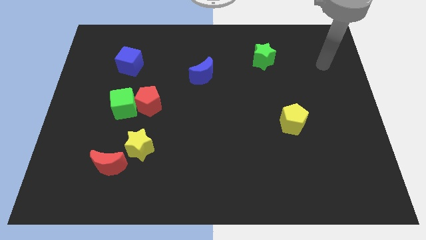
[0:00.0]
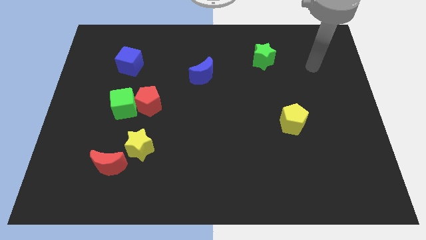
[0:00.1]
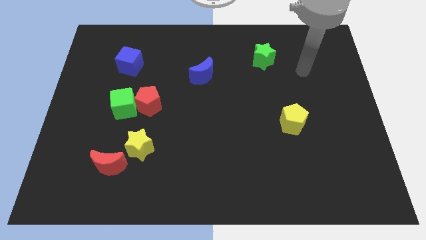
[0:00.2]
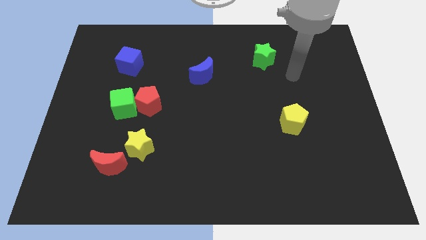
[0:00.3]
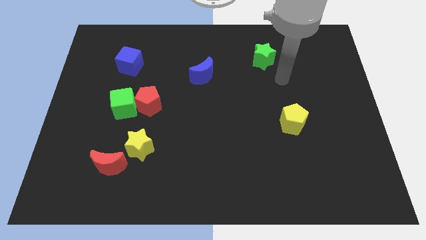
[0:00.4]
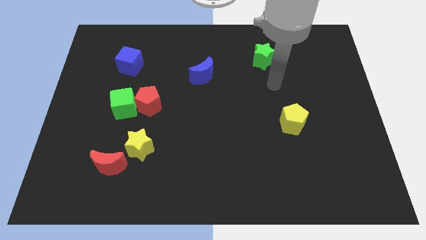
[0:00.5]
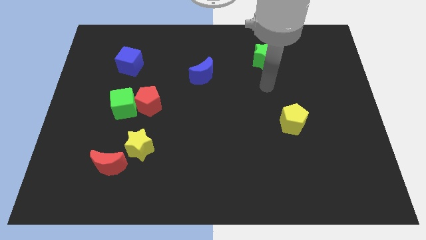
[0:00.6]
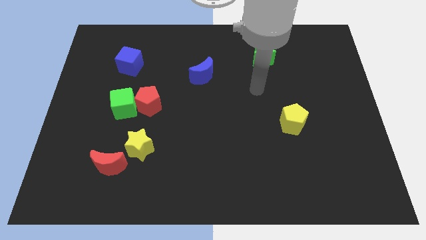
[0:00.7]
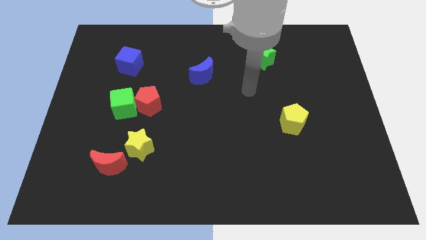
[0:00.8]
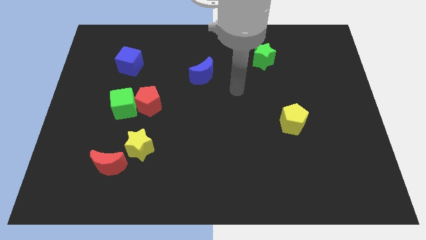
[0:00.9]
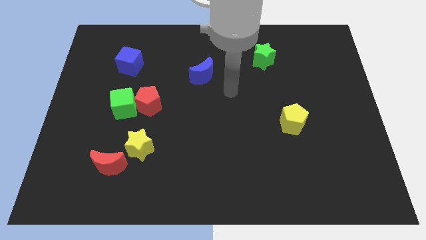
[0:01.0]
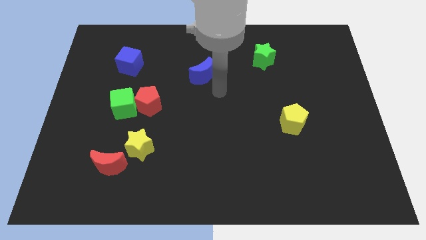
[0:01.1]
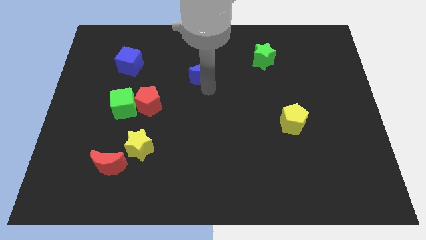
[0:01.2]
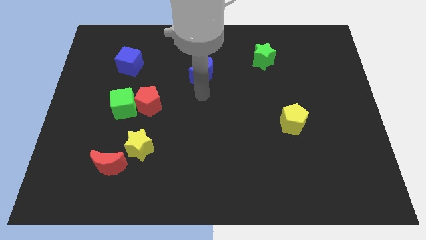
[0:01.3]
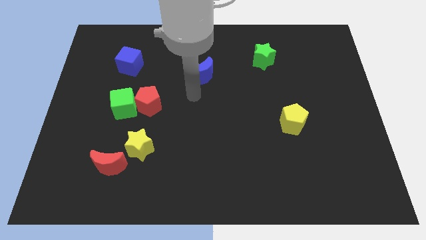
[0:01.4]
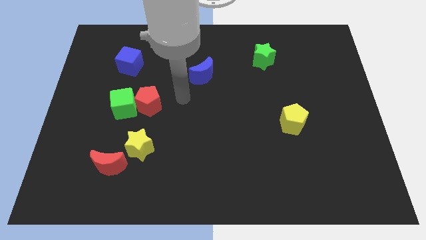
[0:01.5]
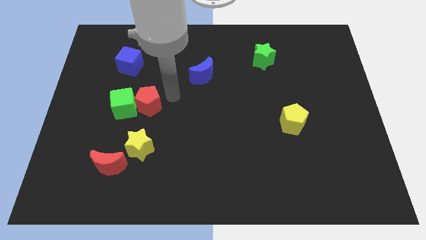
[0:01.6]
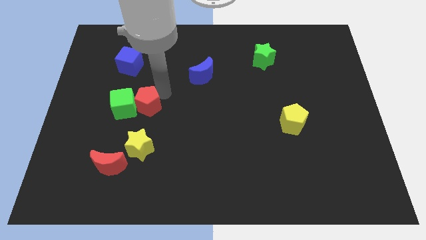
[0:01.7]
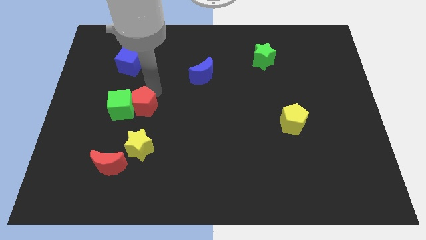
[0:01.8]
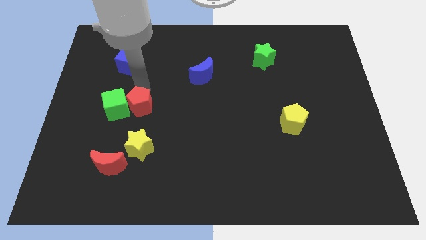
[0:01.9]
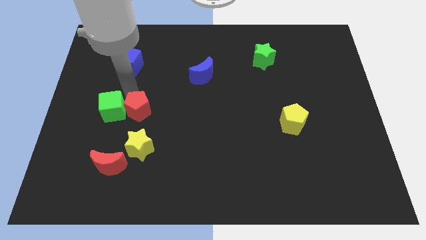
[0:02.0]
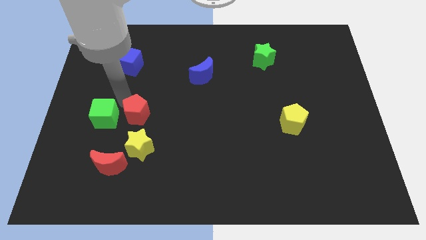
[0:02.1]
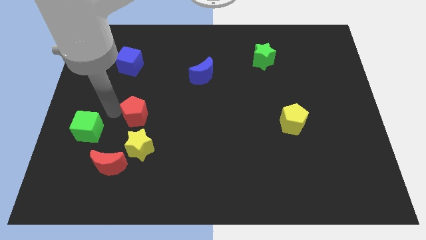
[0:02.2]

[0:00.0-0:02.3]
pull the red pentagon apart from the green cube

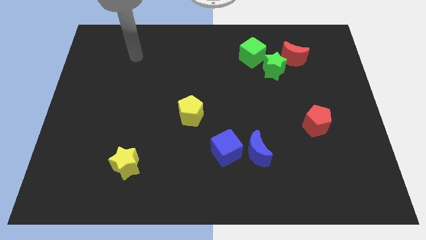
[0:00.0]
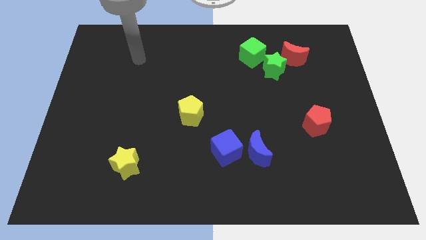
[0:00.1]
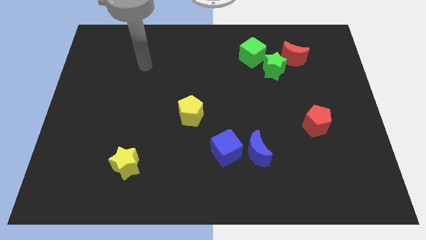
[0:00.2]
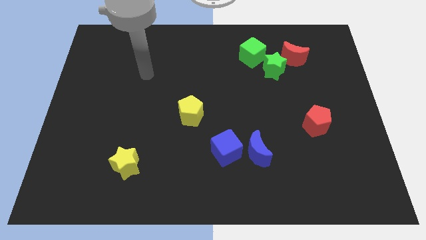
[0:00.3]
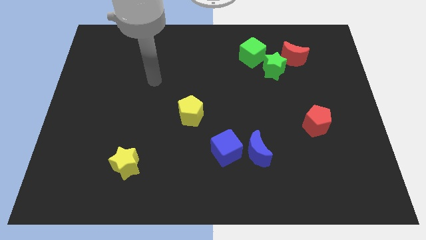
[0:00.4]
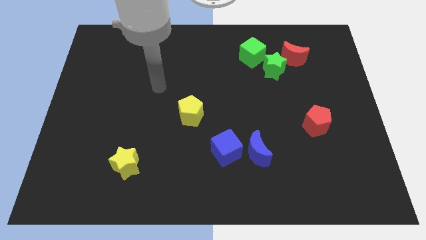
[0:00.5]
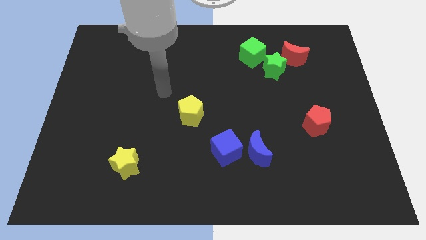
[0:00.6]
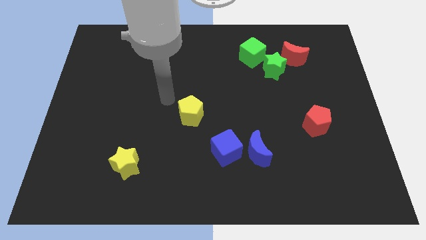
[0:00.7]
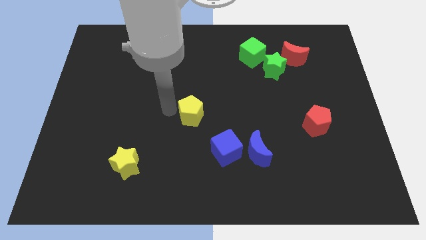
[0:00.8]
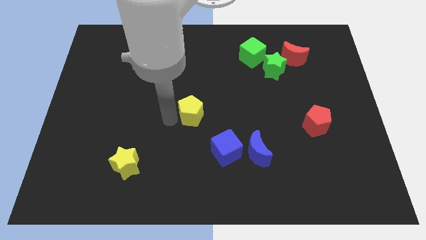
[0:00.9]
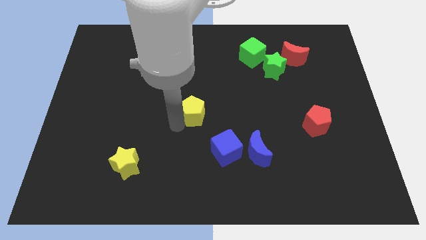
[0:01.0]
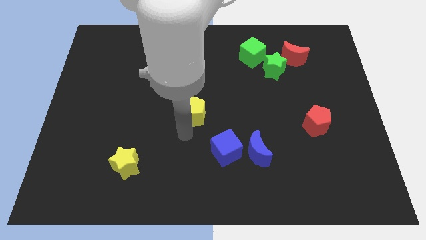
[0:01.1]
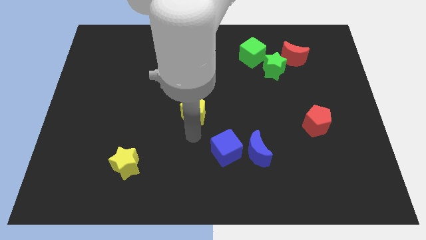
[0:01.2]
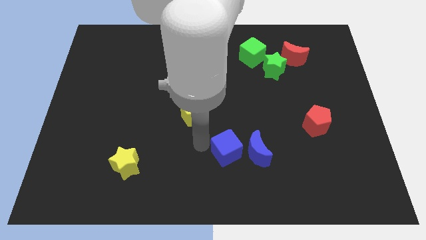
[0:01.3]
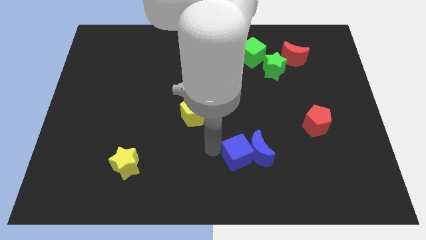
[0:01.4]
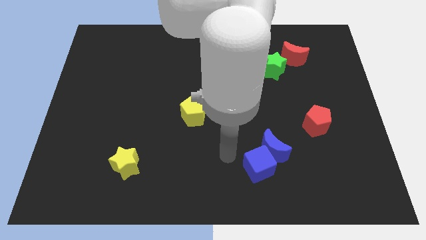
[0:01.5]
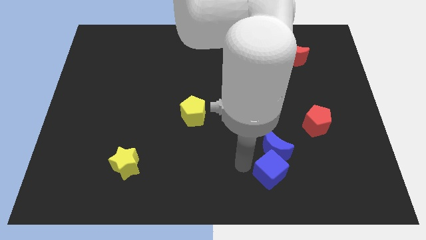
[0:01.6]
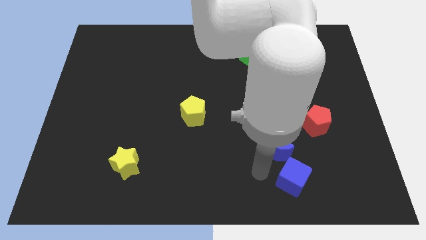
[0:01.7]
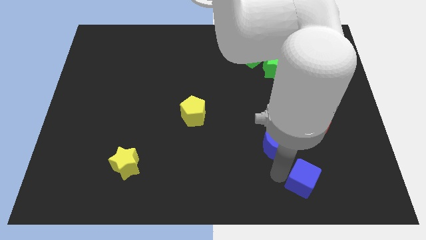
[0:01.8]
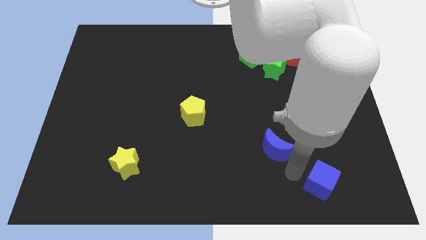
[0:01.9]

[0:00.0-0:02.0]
pull the blue moon apart from the blue cube

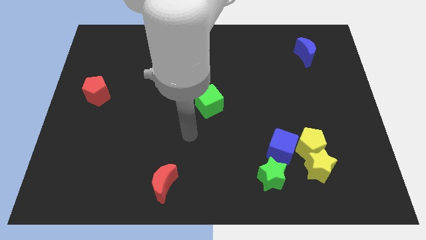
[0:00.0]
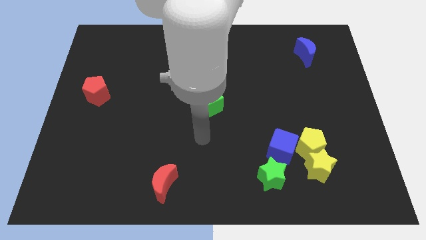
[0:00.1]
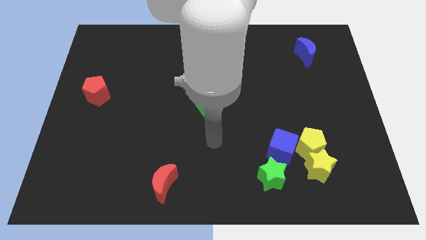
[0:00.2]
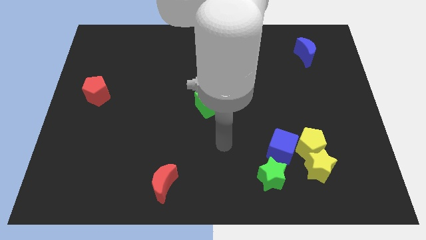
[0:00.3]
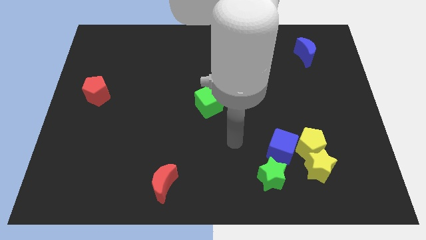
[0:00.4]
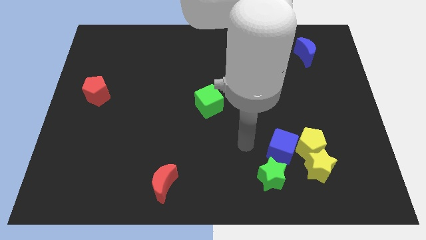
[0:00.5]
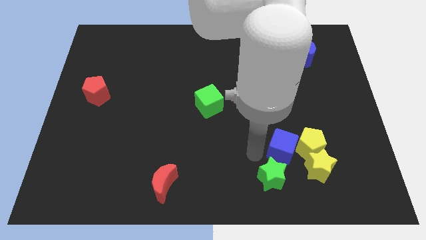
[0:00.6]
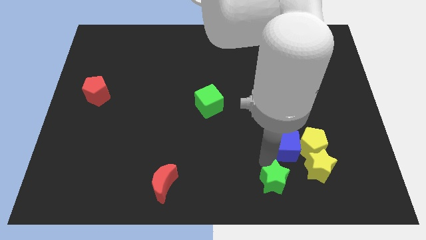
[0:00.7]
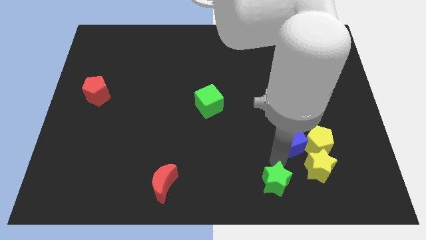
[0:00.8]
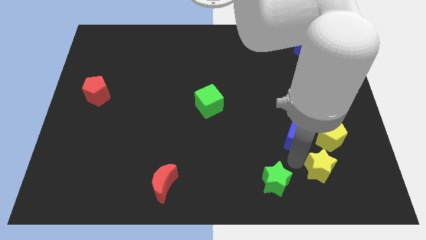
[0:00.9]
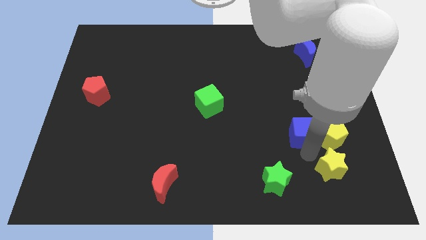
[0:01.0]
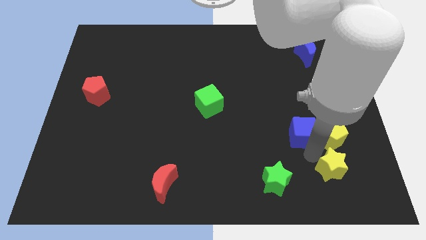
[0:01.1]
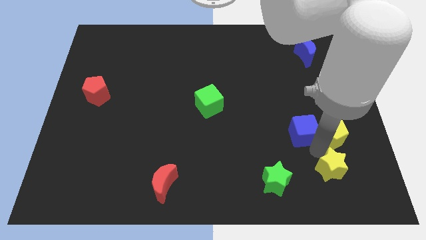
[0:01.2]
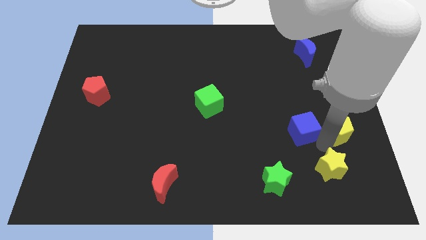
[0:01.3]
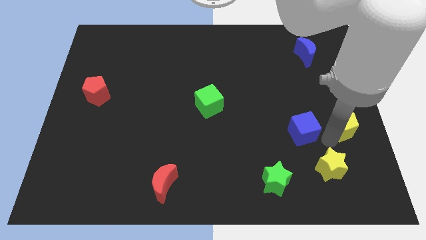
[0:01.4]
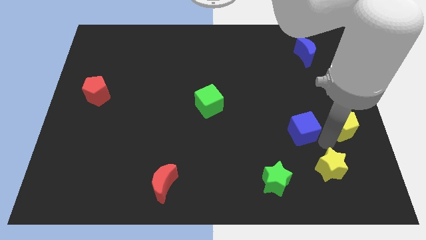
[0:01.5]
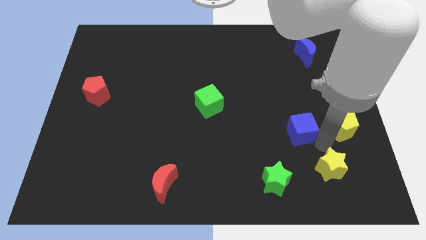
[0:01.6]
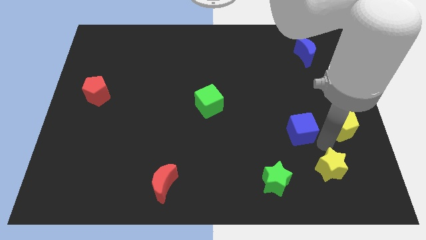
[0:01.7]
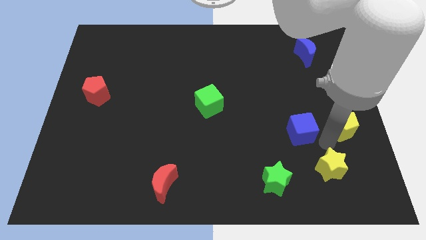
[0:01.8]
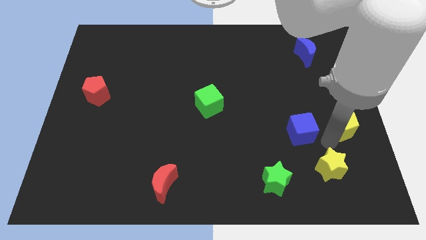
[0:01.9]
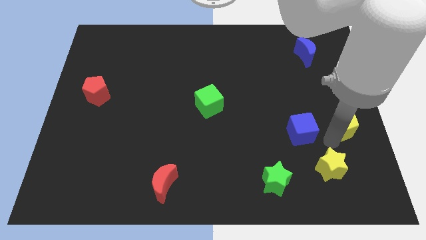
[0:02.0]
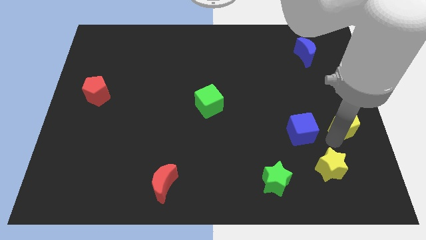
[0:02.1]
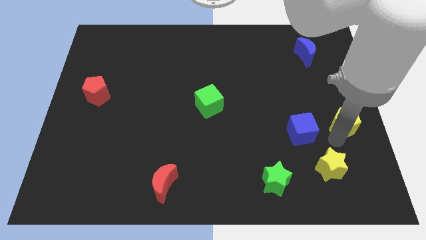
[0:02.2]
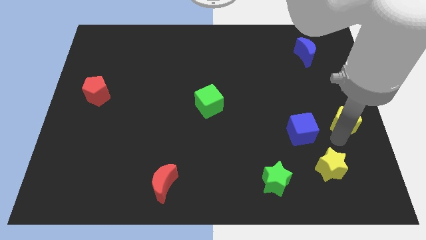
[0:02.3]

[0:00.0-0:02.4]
separate the yellow pentagon from the yellow star and blue cube

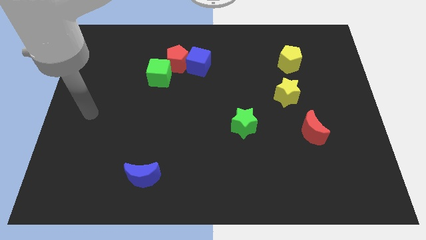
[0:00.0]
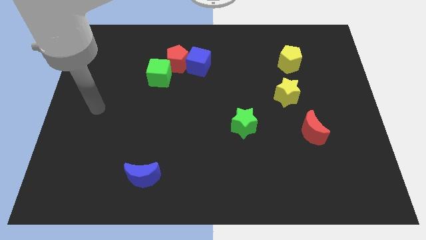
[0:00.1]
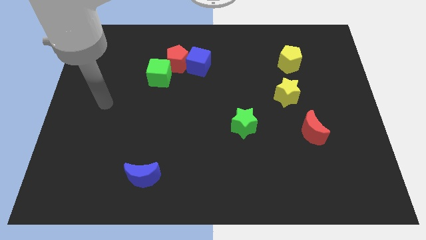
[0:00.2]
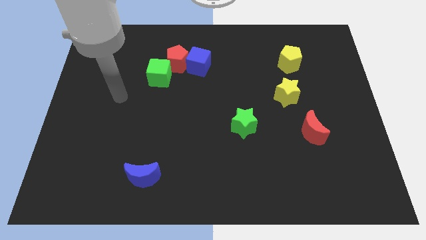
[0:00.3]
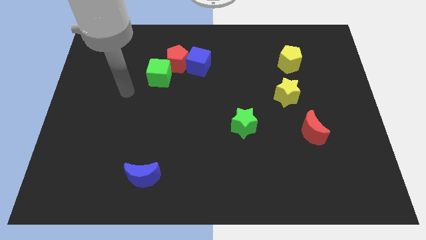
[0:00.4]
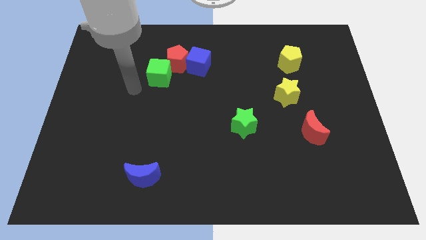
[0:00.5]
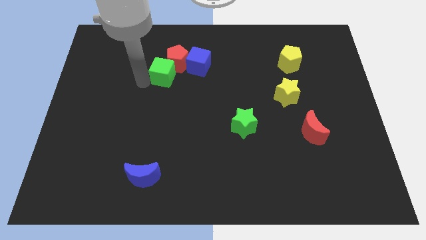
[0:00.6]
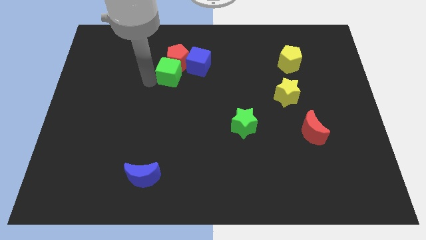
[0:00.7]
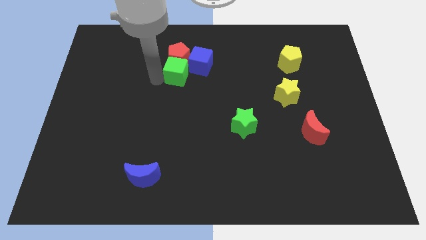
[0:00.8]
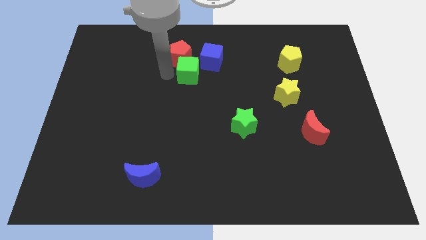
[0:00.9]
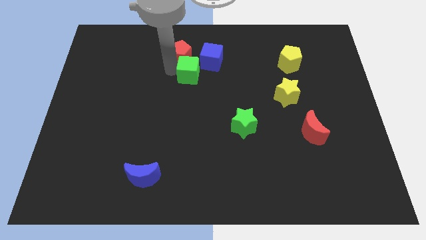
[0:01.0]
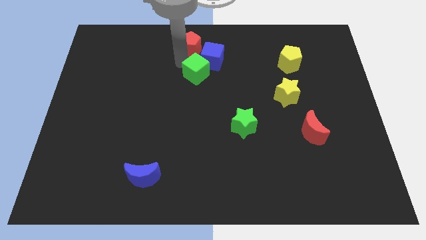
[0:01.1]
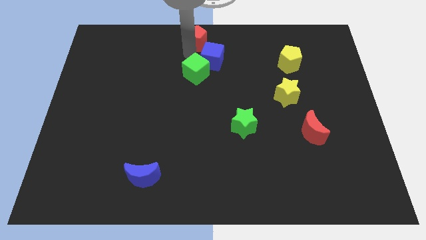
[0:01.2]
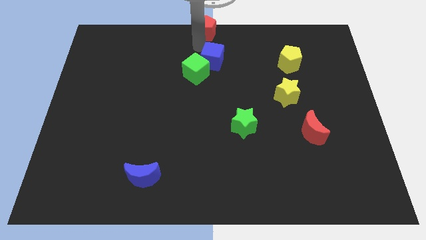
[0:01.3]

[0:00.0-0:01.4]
pull the blue cube apart from the red pentagon

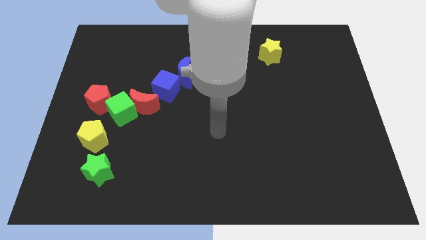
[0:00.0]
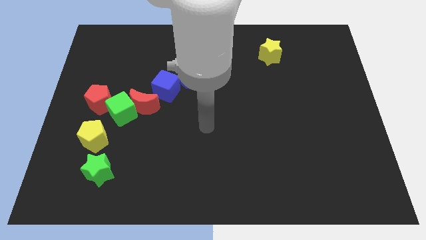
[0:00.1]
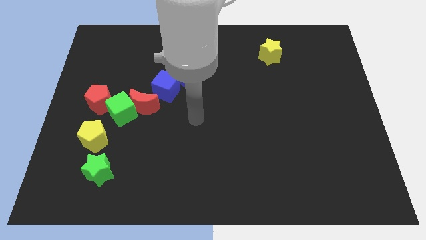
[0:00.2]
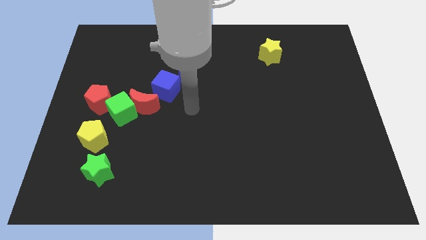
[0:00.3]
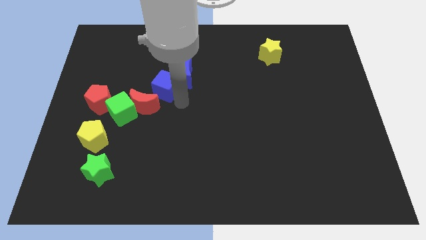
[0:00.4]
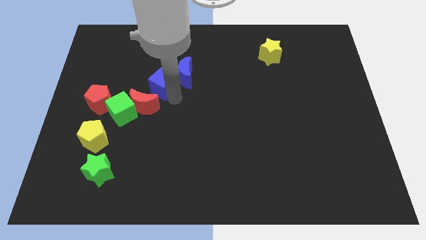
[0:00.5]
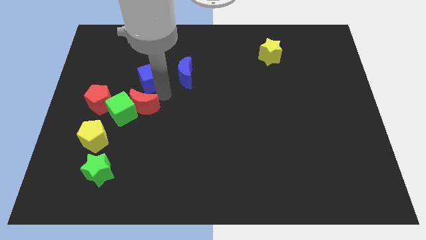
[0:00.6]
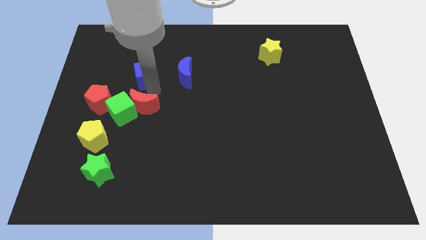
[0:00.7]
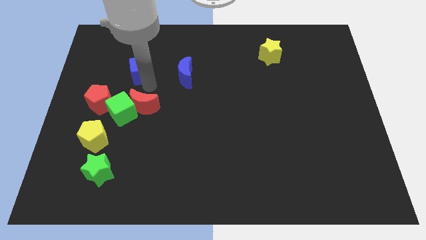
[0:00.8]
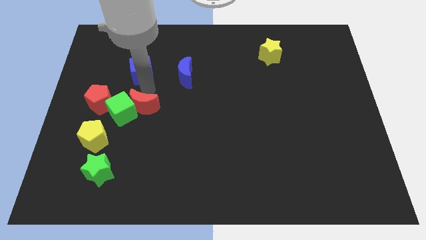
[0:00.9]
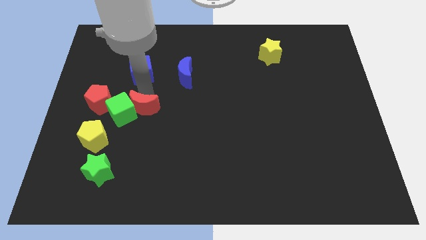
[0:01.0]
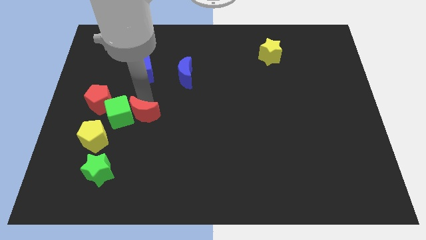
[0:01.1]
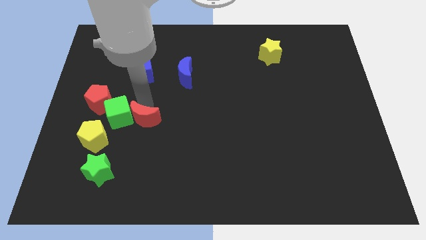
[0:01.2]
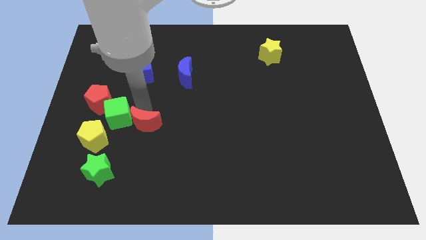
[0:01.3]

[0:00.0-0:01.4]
pull the red moon apart from the green cube and blue cube
